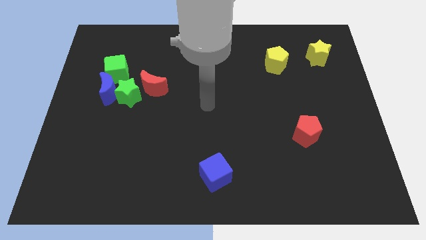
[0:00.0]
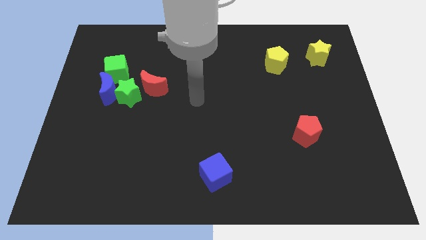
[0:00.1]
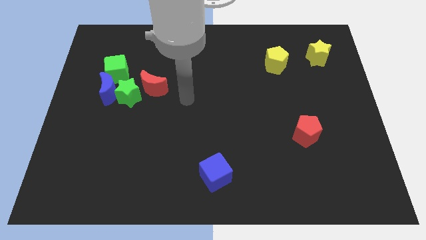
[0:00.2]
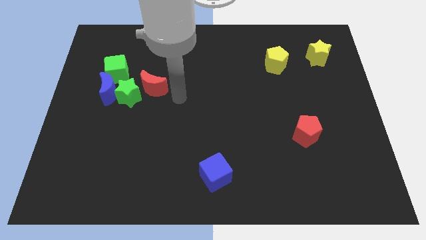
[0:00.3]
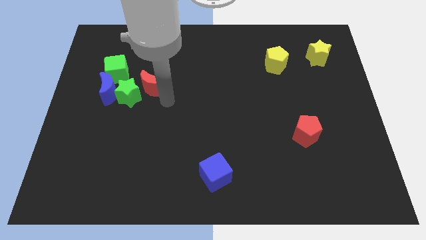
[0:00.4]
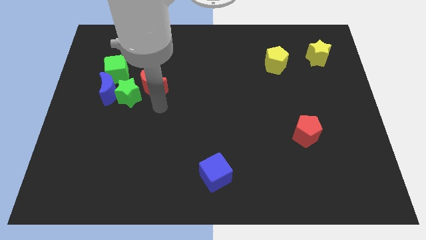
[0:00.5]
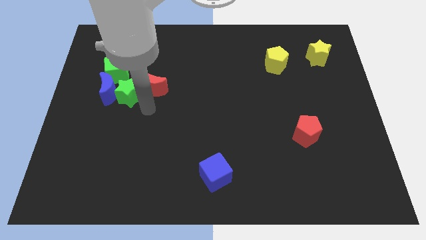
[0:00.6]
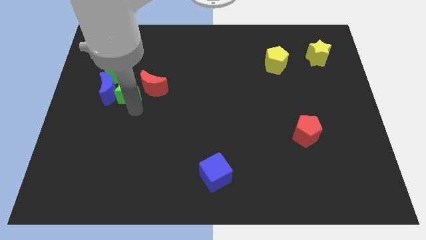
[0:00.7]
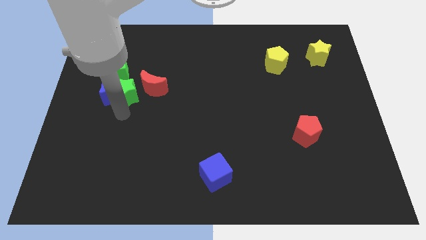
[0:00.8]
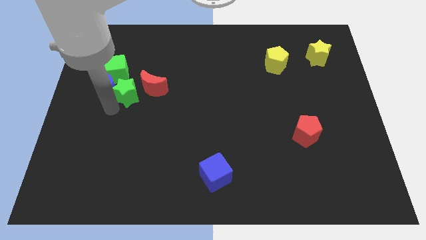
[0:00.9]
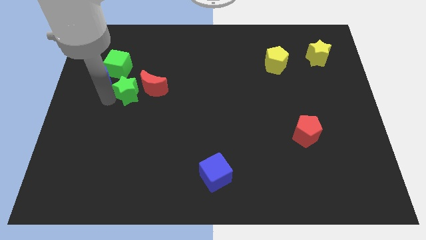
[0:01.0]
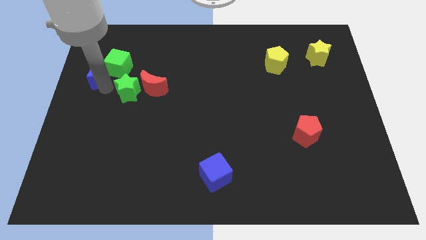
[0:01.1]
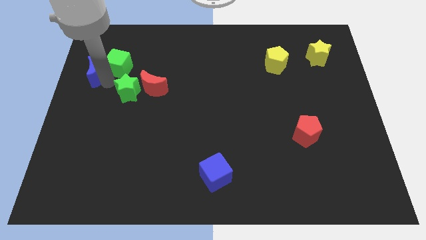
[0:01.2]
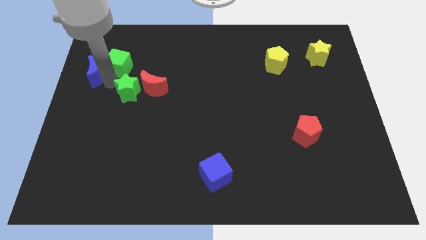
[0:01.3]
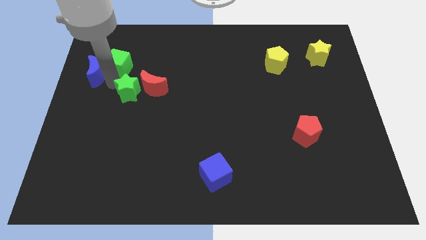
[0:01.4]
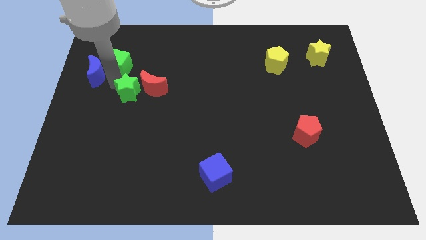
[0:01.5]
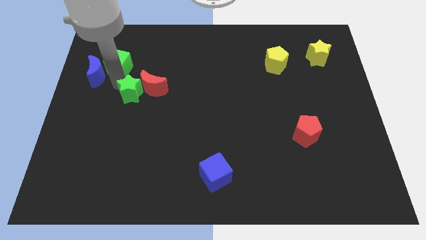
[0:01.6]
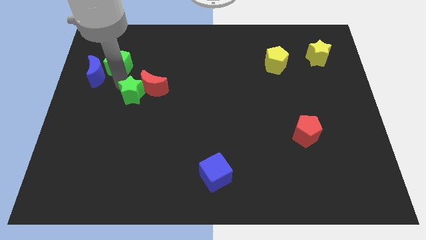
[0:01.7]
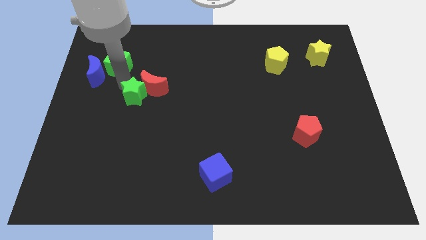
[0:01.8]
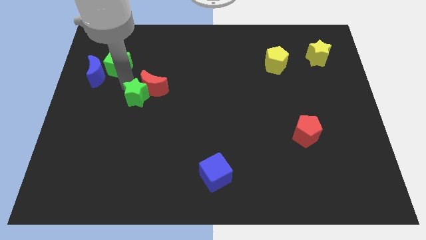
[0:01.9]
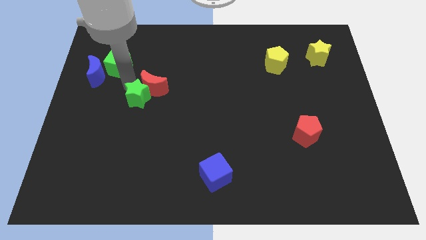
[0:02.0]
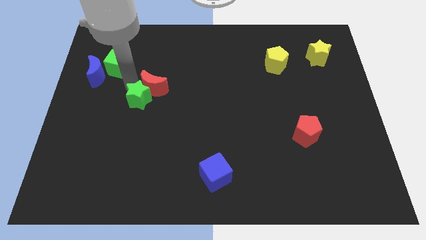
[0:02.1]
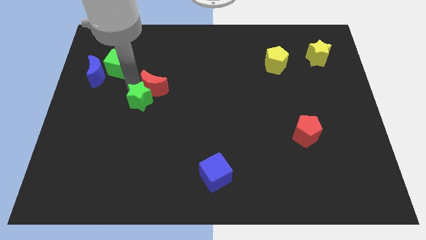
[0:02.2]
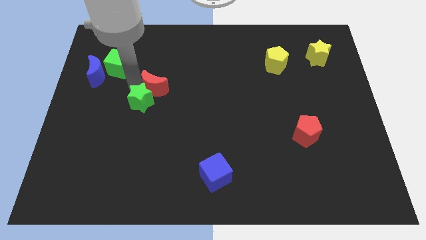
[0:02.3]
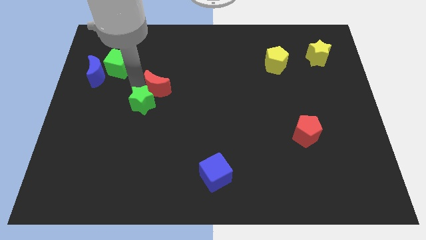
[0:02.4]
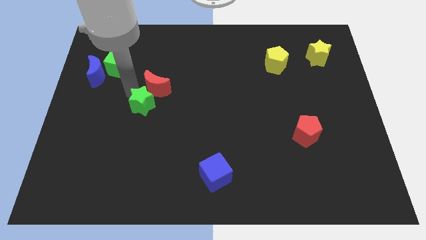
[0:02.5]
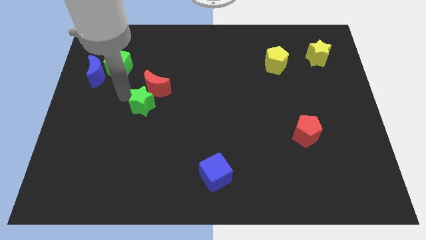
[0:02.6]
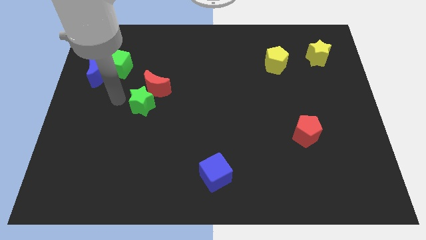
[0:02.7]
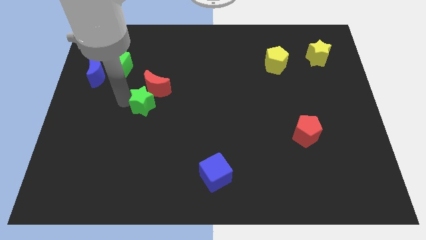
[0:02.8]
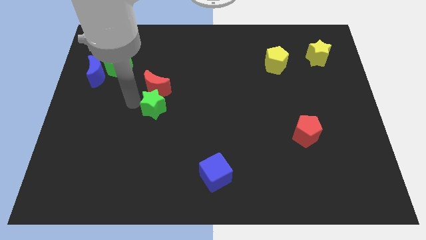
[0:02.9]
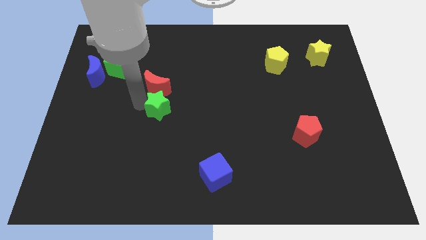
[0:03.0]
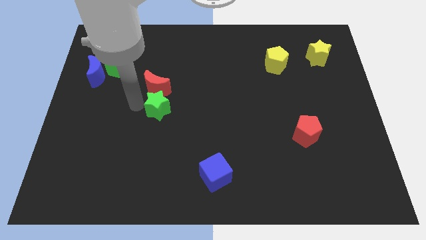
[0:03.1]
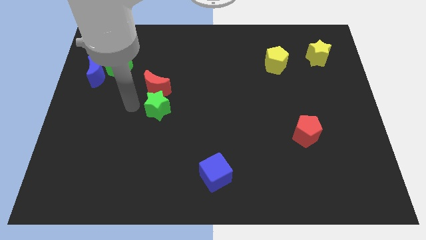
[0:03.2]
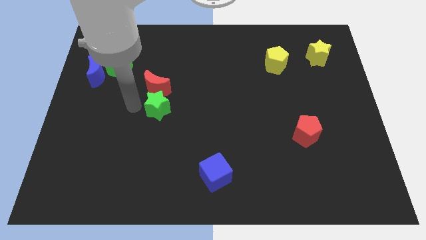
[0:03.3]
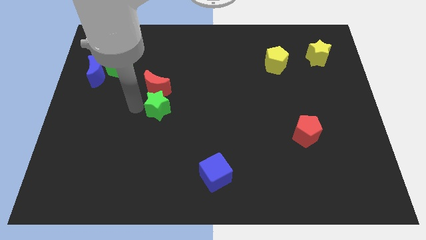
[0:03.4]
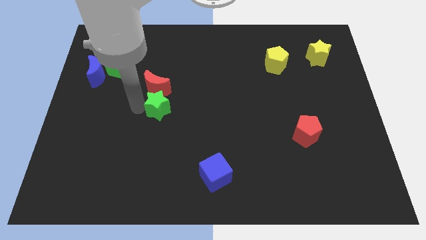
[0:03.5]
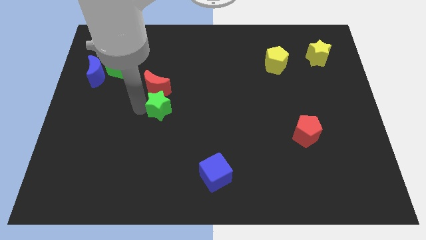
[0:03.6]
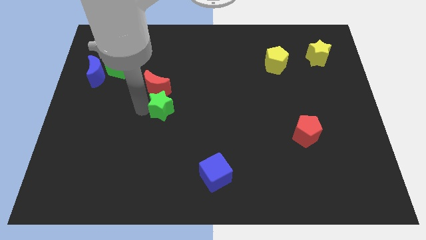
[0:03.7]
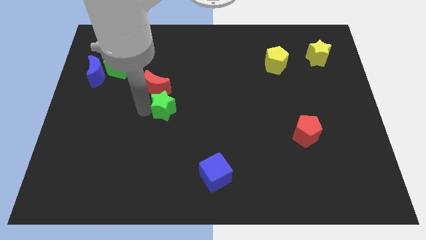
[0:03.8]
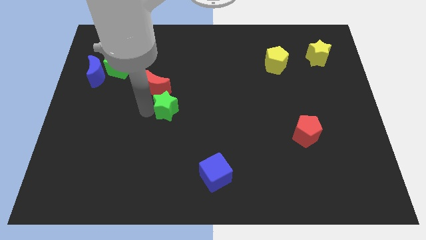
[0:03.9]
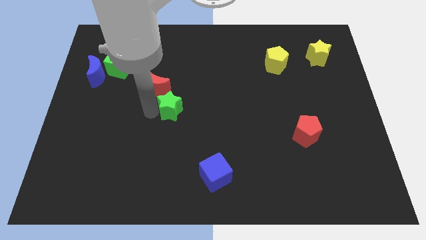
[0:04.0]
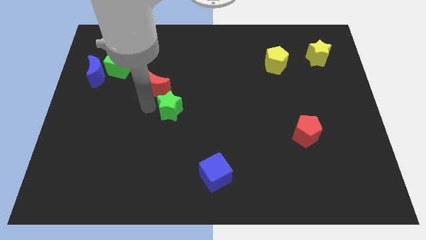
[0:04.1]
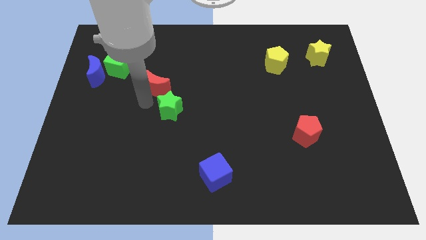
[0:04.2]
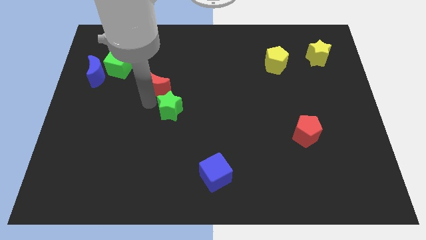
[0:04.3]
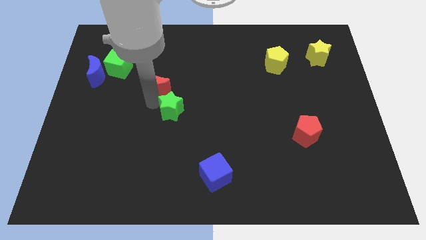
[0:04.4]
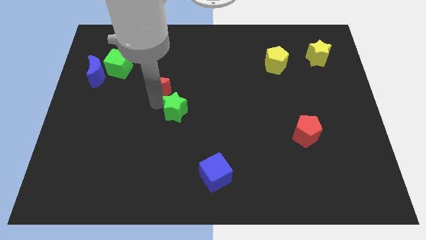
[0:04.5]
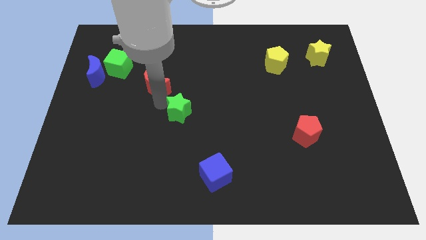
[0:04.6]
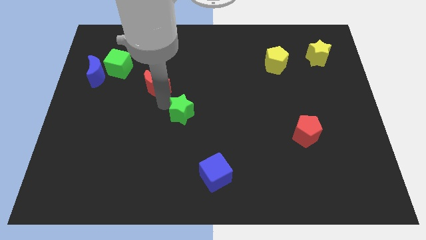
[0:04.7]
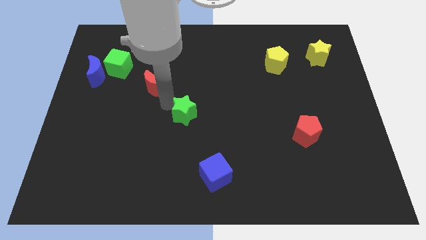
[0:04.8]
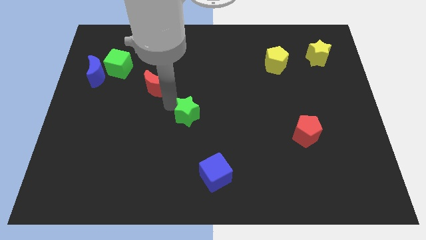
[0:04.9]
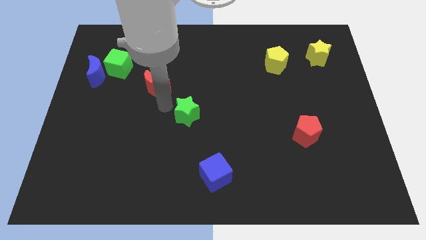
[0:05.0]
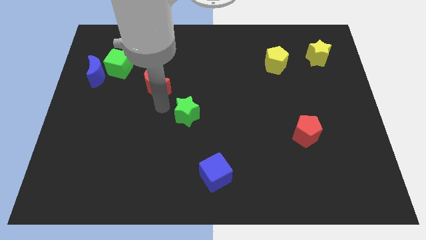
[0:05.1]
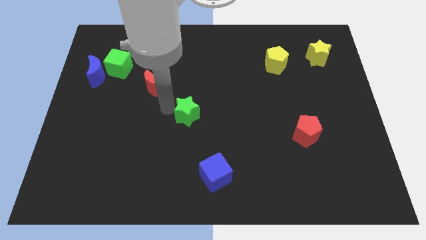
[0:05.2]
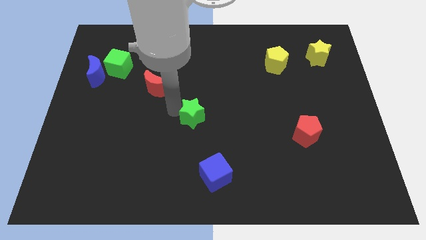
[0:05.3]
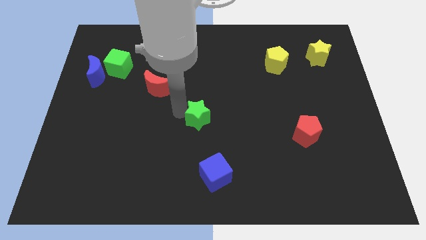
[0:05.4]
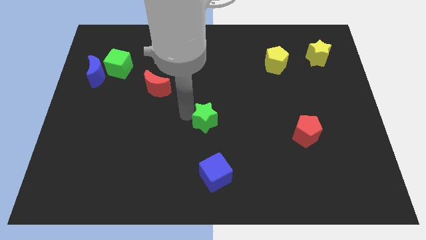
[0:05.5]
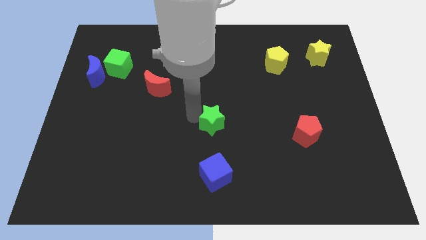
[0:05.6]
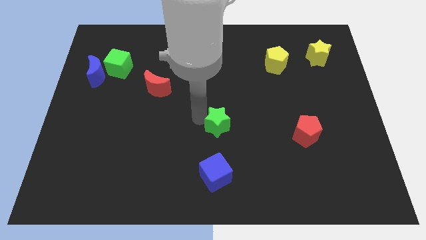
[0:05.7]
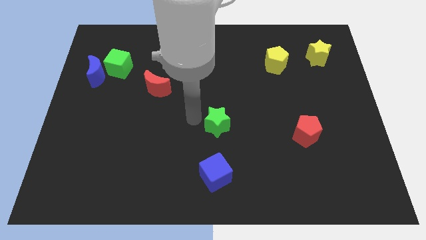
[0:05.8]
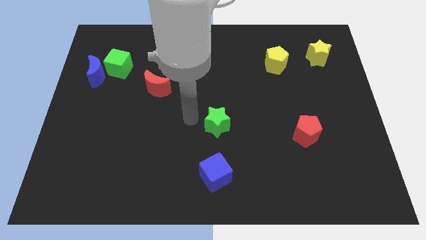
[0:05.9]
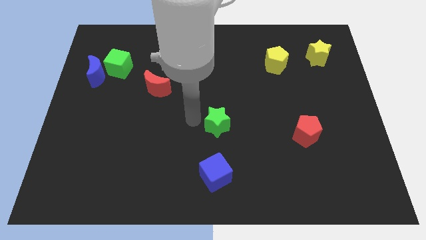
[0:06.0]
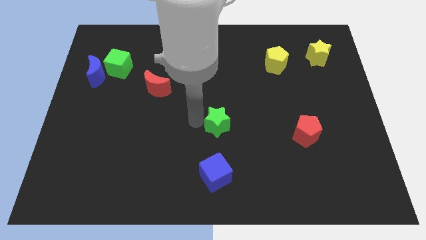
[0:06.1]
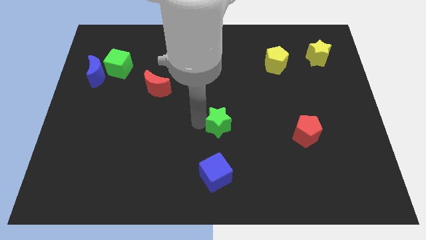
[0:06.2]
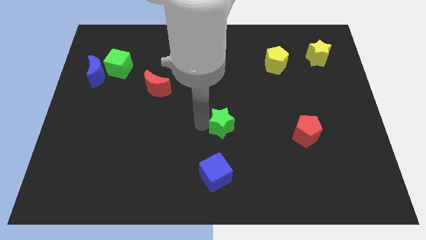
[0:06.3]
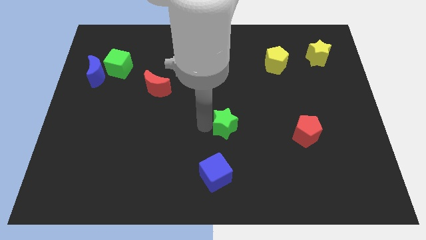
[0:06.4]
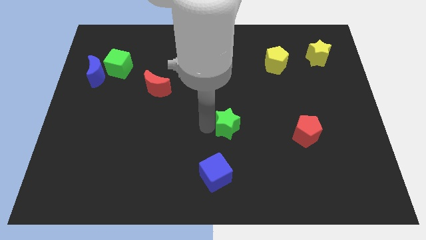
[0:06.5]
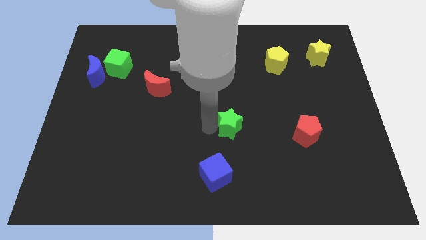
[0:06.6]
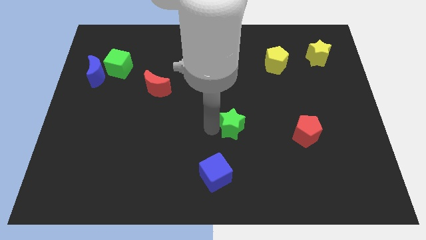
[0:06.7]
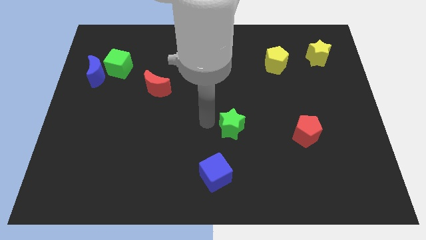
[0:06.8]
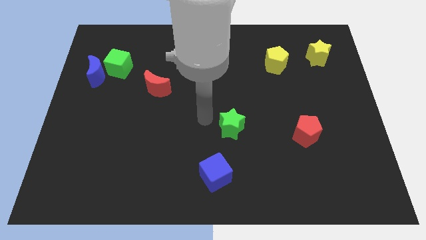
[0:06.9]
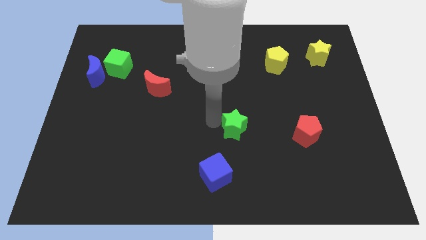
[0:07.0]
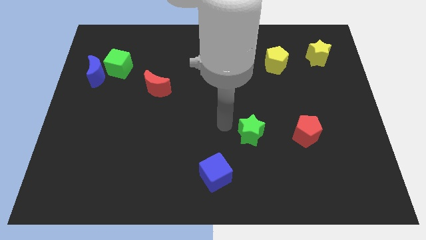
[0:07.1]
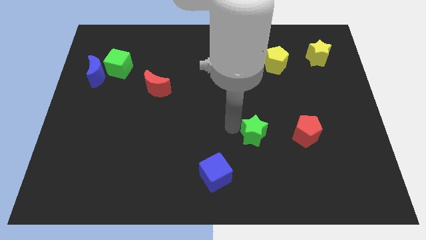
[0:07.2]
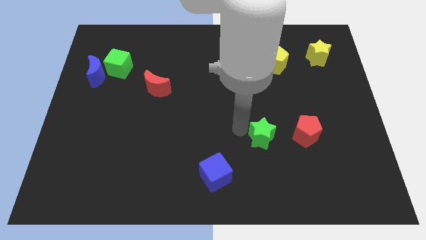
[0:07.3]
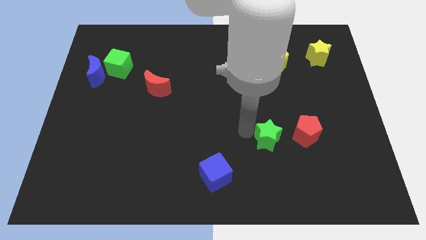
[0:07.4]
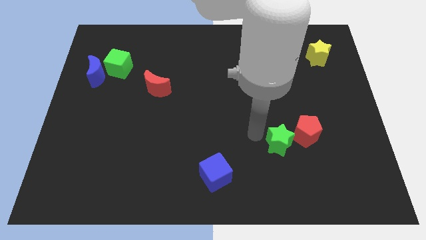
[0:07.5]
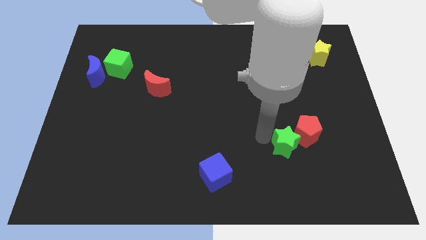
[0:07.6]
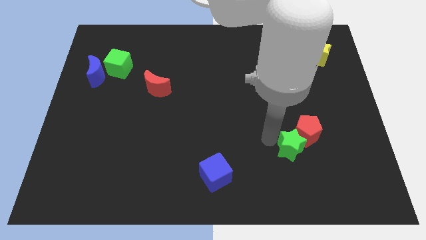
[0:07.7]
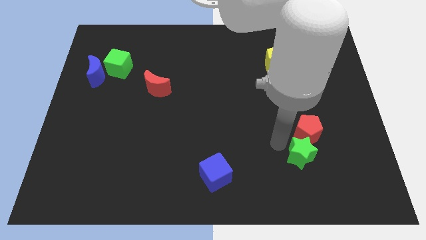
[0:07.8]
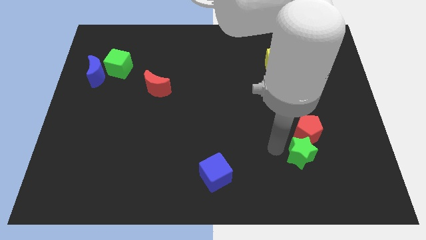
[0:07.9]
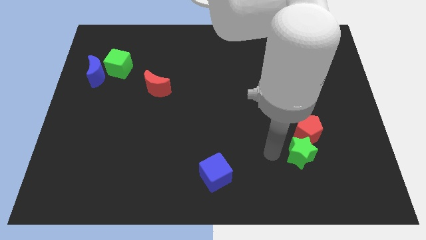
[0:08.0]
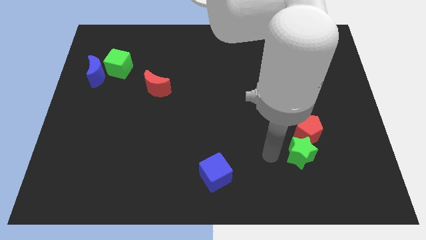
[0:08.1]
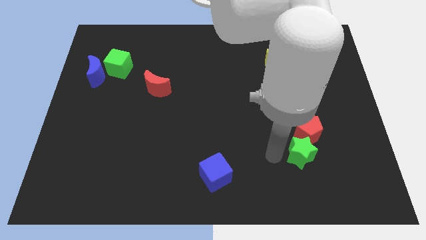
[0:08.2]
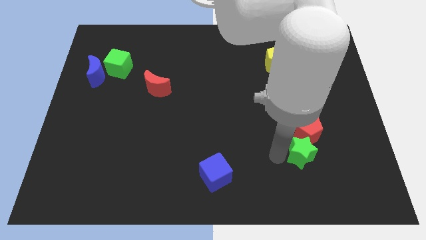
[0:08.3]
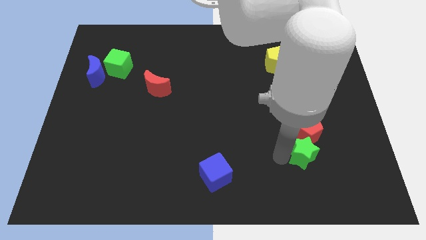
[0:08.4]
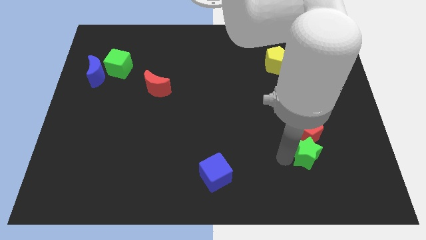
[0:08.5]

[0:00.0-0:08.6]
slide the green star to the bottom right side of the red pentagon
